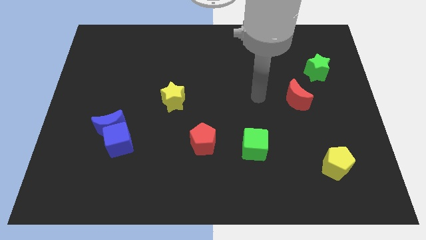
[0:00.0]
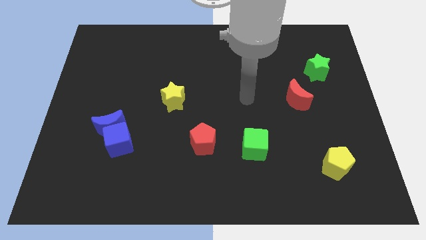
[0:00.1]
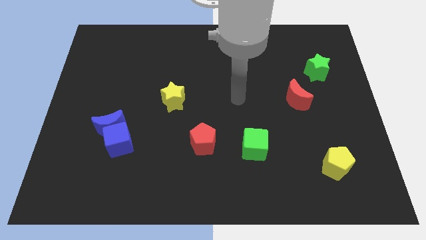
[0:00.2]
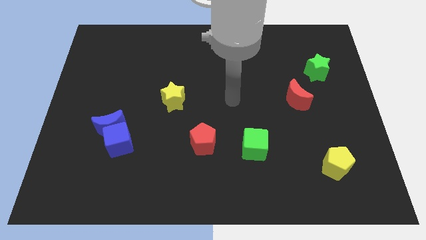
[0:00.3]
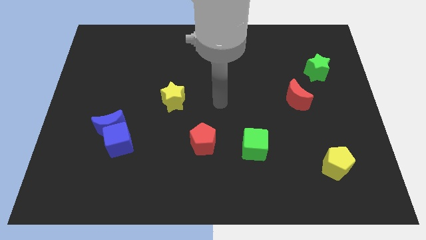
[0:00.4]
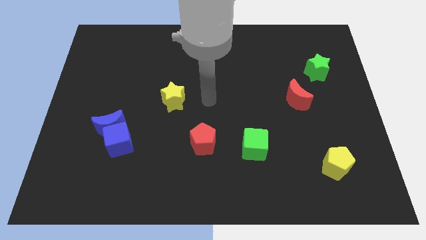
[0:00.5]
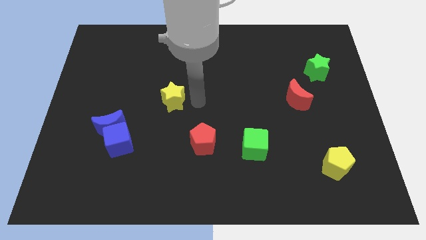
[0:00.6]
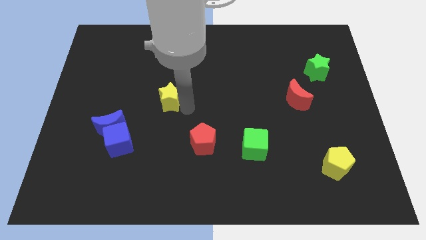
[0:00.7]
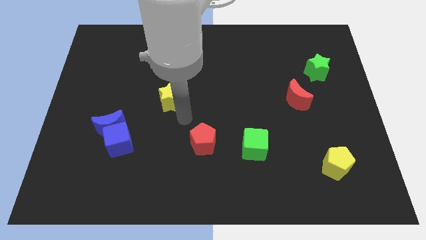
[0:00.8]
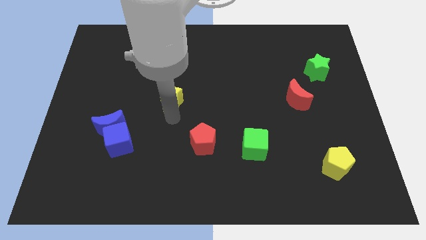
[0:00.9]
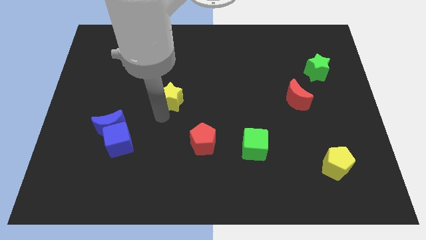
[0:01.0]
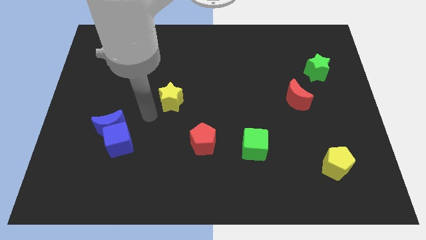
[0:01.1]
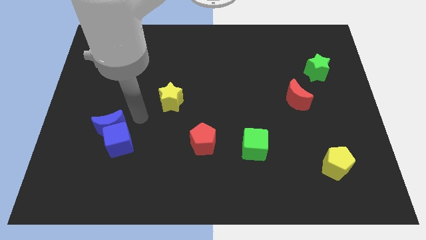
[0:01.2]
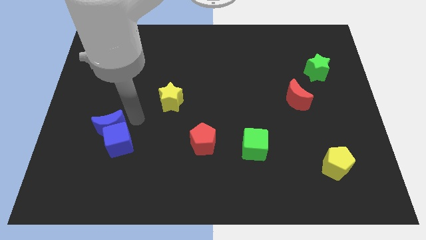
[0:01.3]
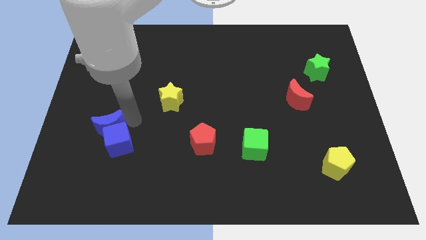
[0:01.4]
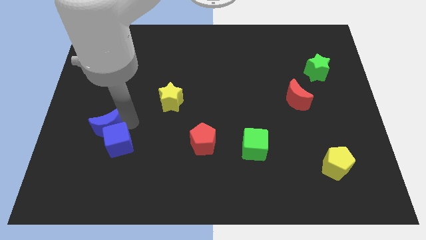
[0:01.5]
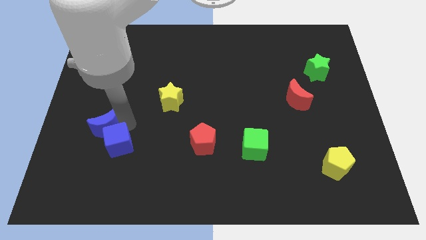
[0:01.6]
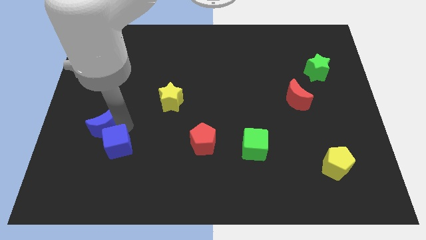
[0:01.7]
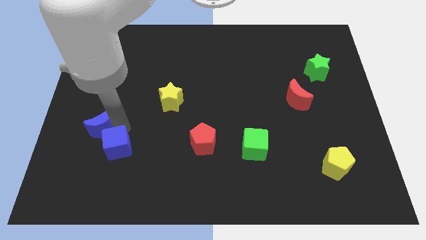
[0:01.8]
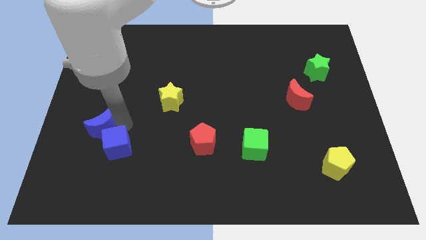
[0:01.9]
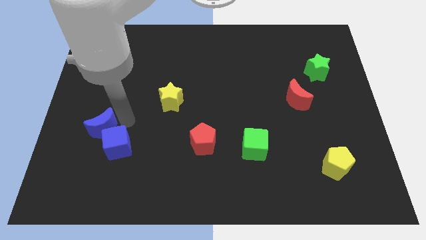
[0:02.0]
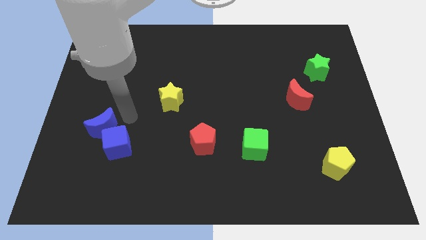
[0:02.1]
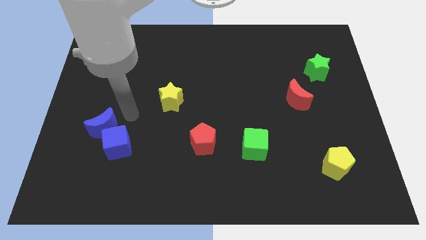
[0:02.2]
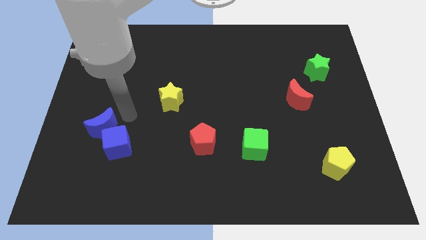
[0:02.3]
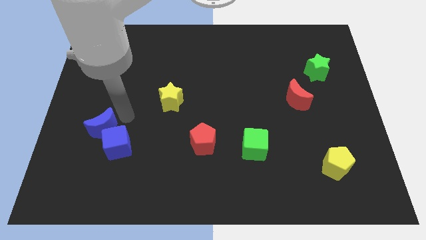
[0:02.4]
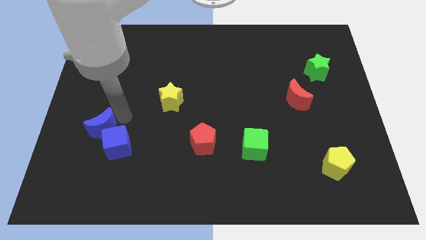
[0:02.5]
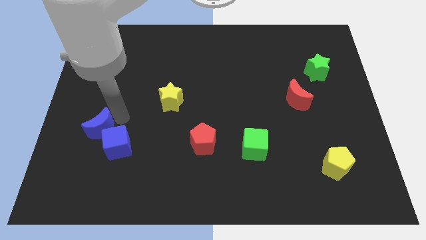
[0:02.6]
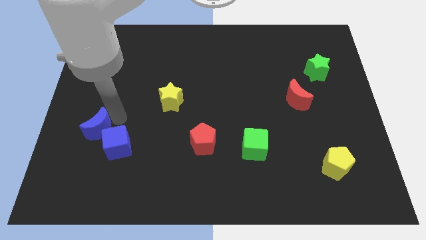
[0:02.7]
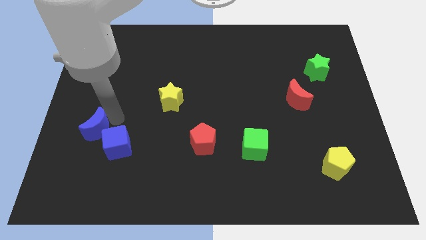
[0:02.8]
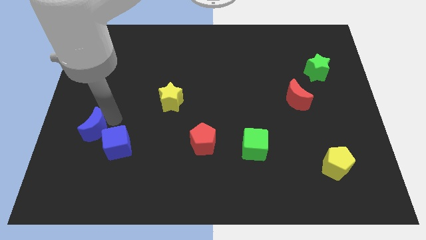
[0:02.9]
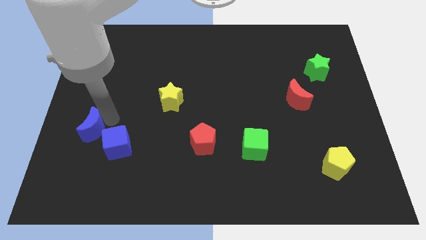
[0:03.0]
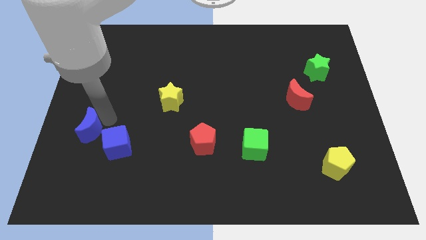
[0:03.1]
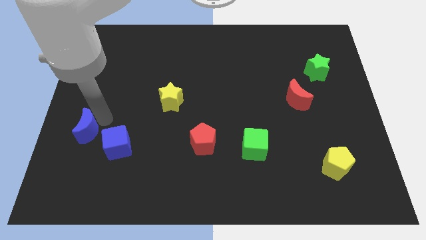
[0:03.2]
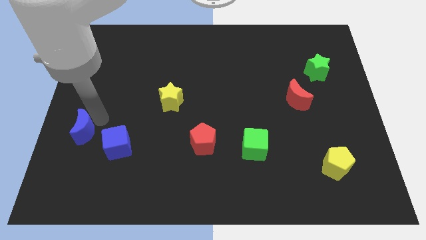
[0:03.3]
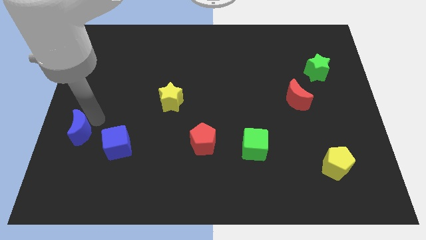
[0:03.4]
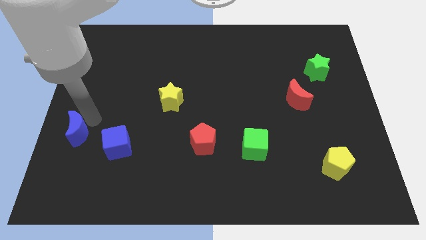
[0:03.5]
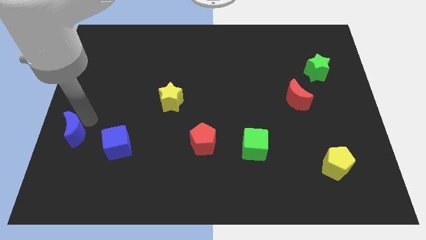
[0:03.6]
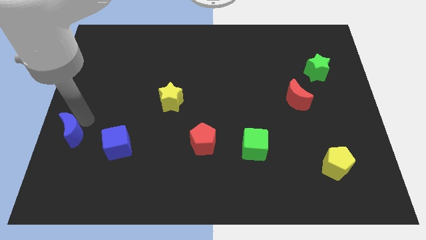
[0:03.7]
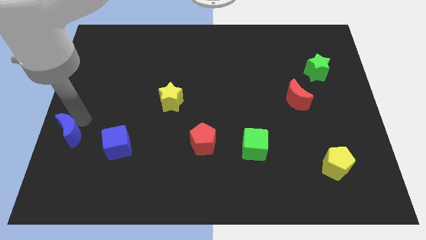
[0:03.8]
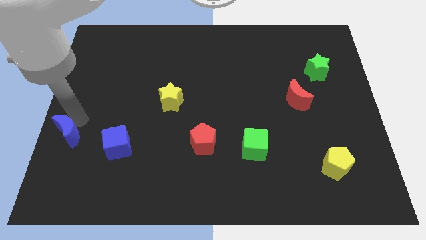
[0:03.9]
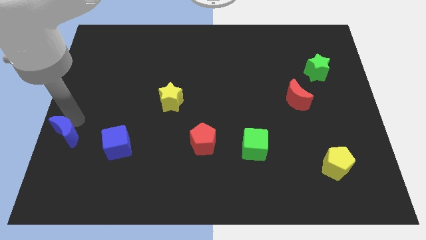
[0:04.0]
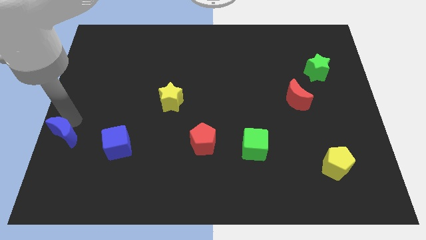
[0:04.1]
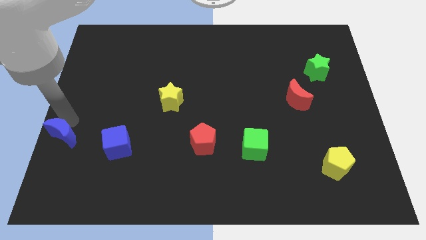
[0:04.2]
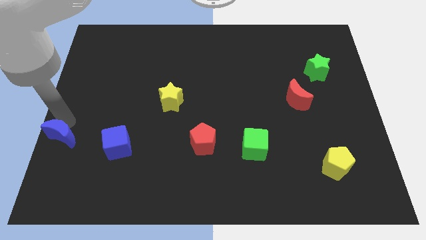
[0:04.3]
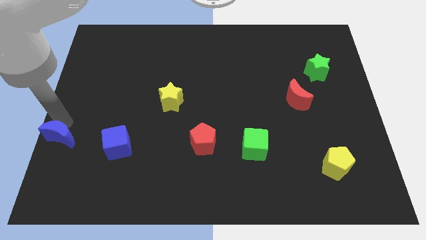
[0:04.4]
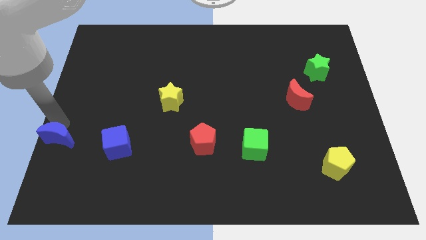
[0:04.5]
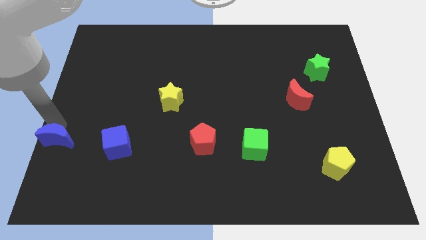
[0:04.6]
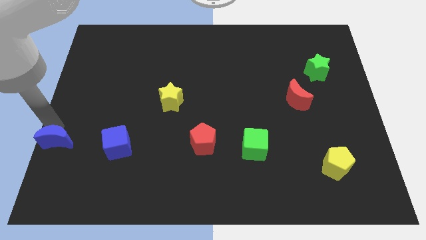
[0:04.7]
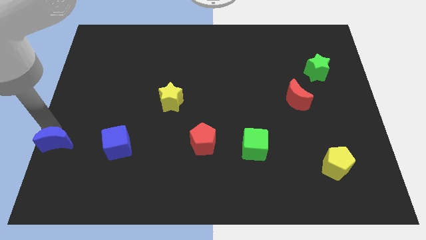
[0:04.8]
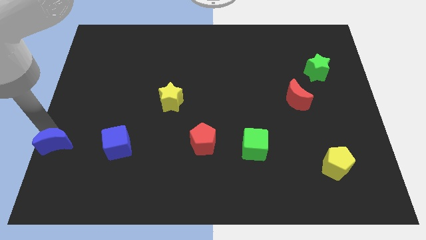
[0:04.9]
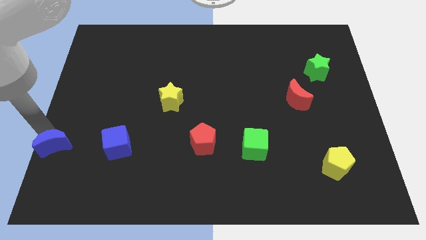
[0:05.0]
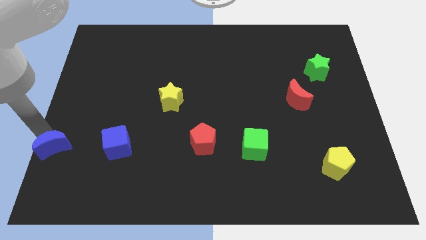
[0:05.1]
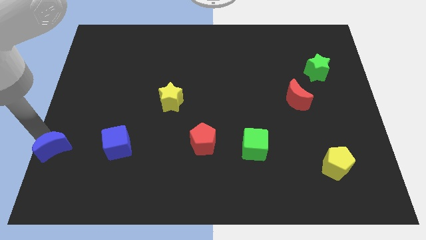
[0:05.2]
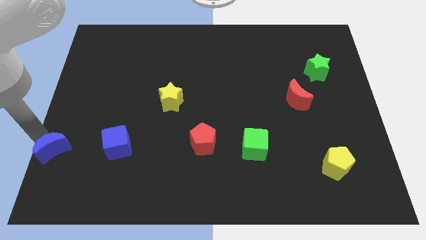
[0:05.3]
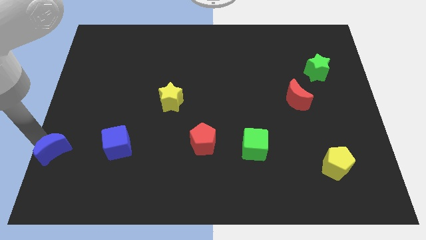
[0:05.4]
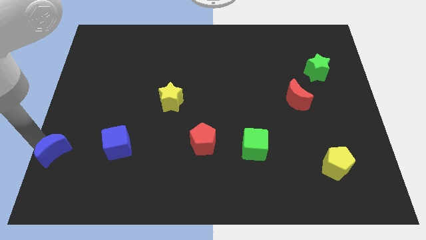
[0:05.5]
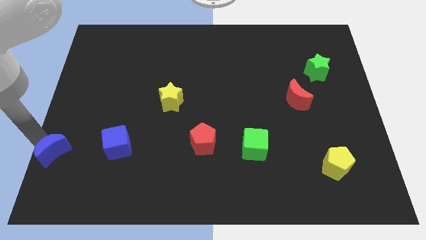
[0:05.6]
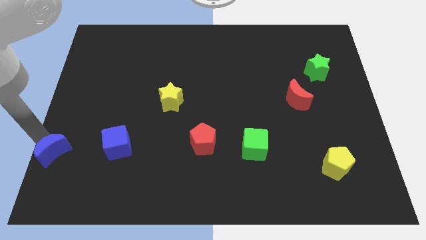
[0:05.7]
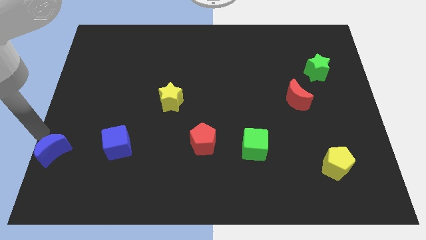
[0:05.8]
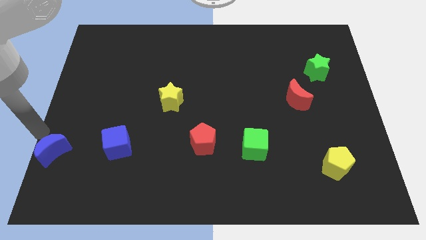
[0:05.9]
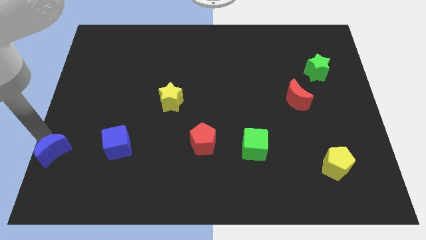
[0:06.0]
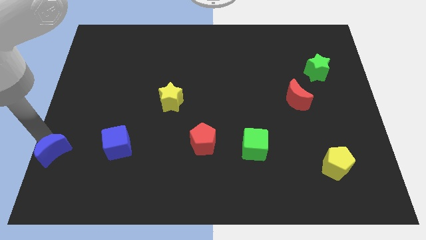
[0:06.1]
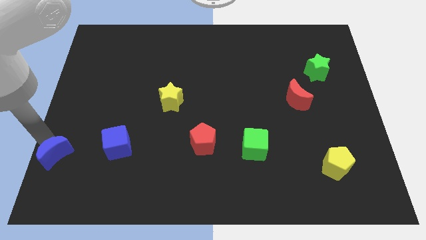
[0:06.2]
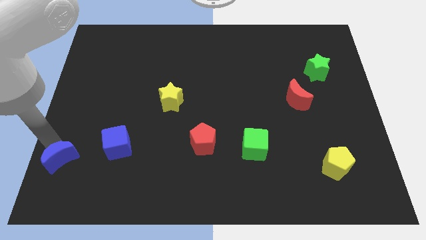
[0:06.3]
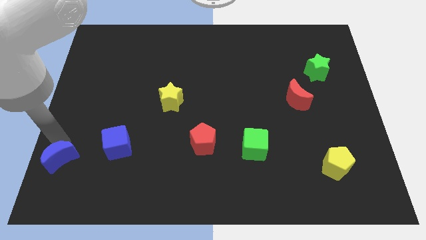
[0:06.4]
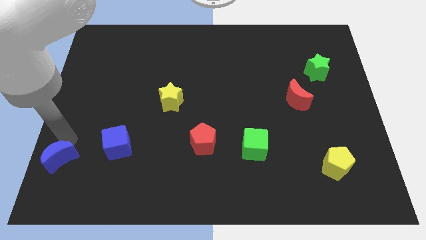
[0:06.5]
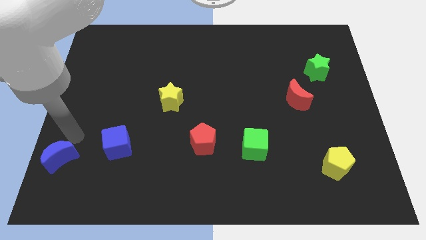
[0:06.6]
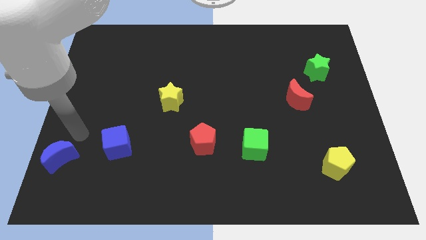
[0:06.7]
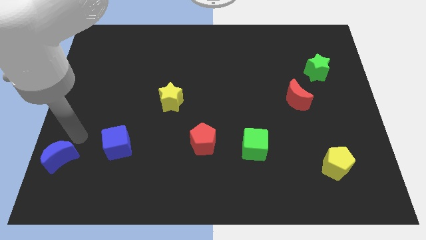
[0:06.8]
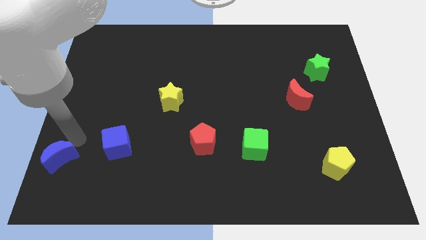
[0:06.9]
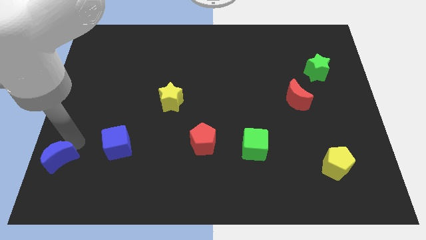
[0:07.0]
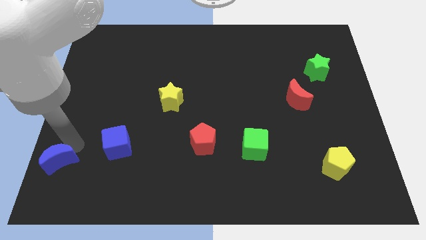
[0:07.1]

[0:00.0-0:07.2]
push the blue moon to the bottom left

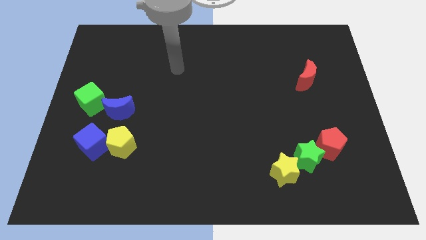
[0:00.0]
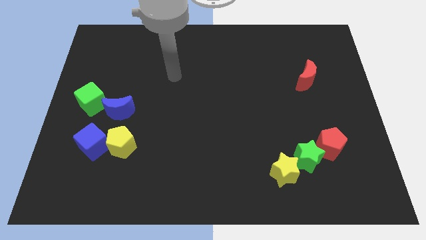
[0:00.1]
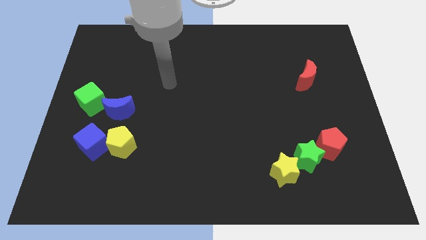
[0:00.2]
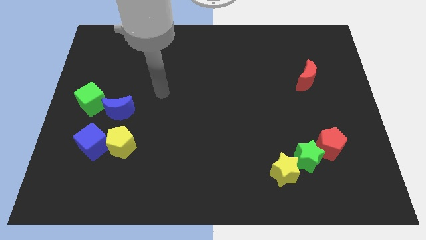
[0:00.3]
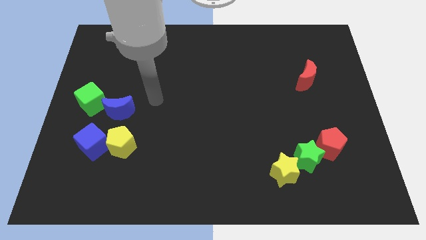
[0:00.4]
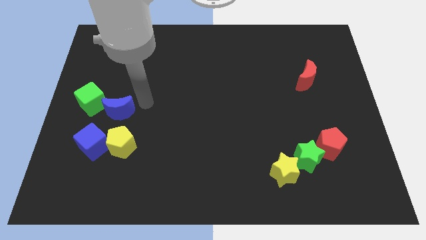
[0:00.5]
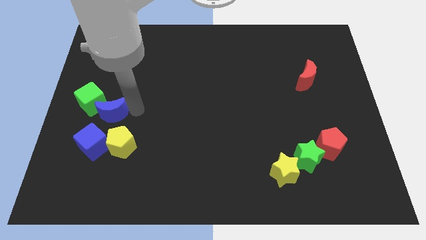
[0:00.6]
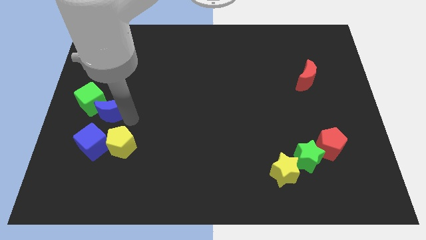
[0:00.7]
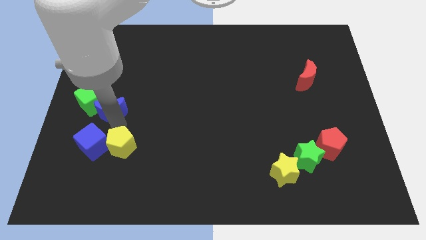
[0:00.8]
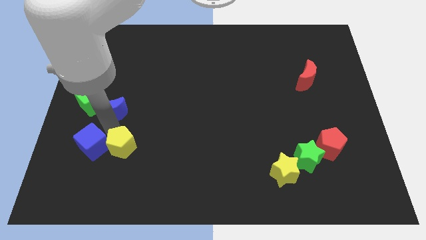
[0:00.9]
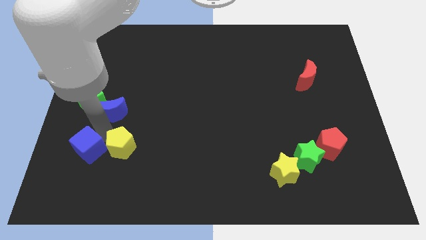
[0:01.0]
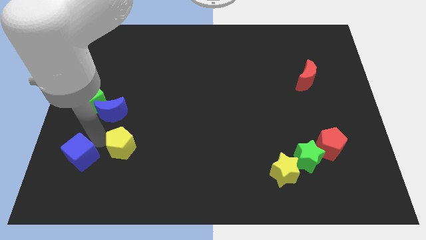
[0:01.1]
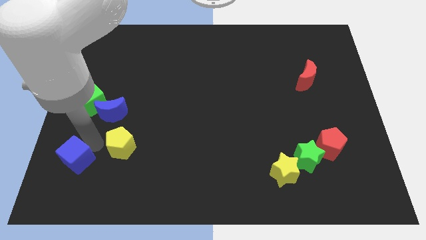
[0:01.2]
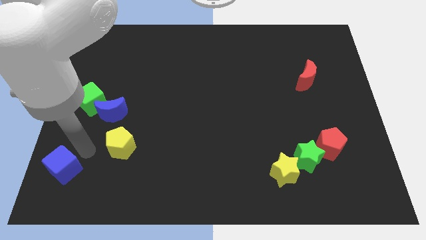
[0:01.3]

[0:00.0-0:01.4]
move the blue cube to the bottom left
